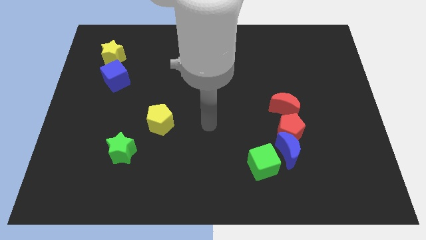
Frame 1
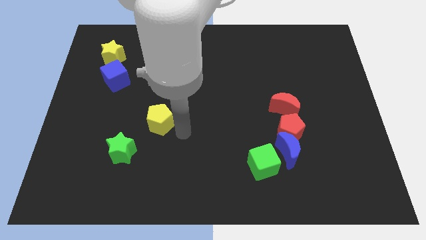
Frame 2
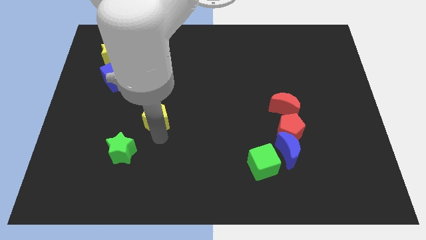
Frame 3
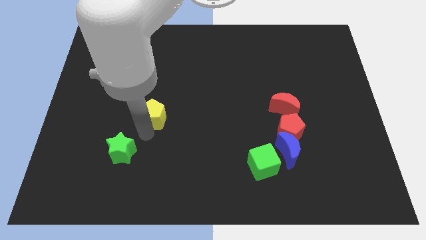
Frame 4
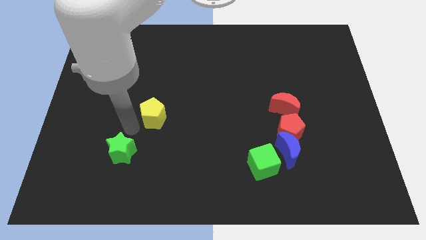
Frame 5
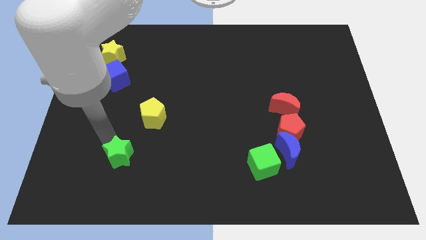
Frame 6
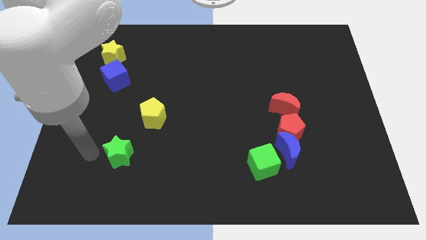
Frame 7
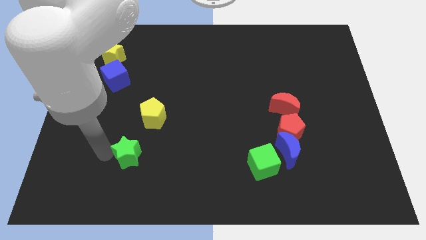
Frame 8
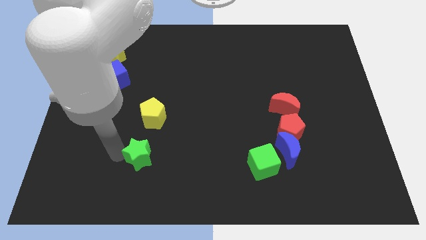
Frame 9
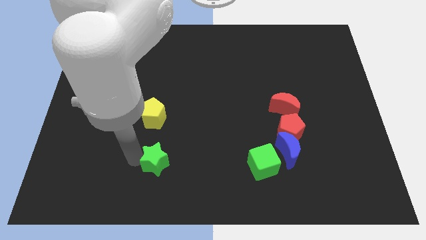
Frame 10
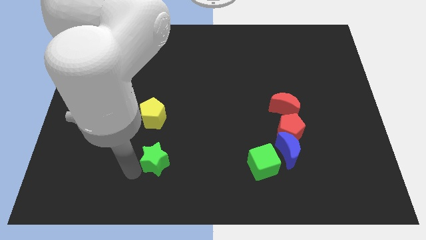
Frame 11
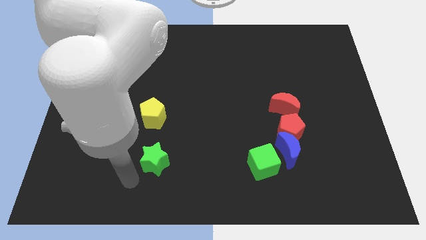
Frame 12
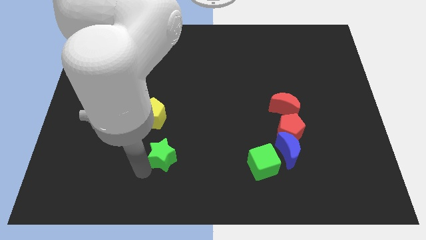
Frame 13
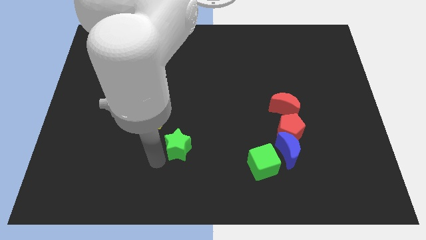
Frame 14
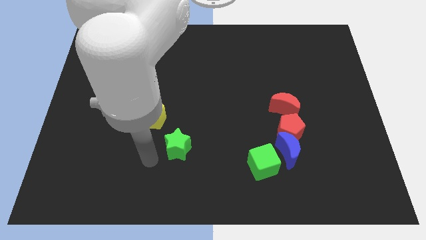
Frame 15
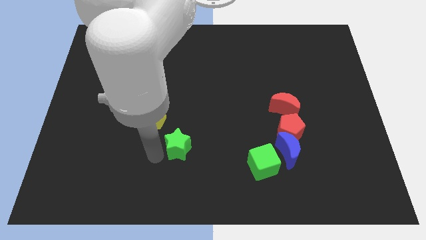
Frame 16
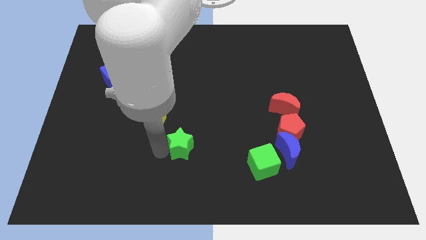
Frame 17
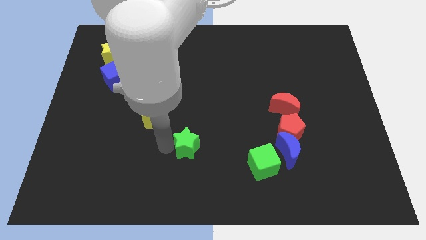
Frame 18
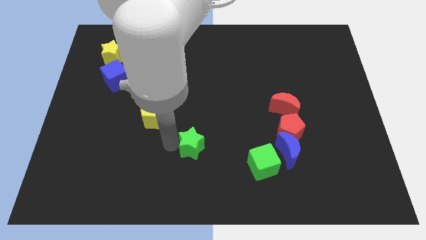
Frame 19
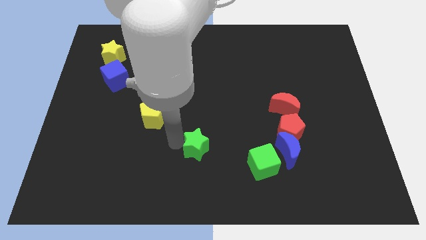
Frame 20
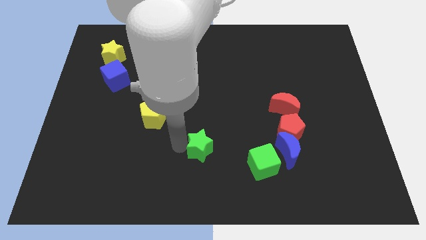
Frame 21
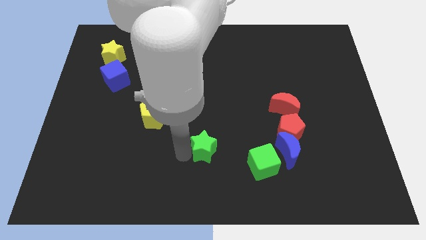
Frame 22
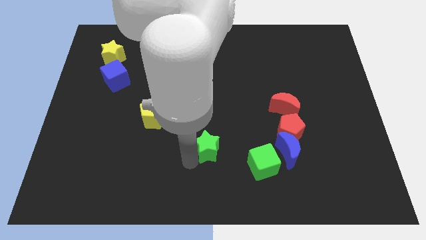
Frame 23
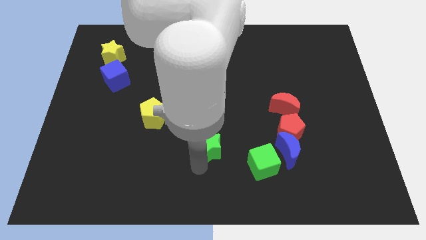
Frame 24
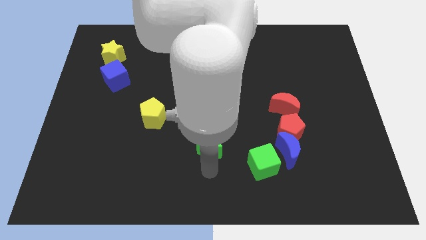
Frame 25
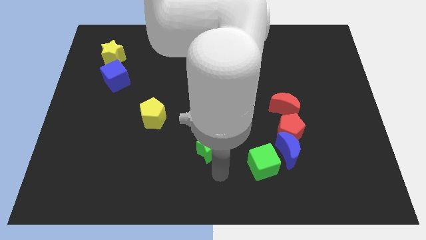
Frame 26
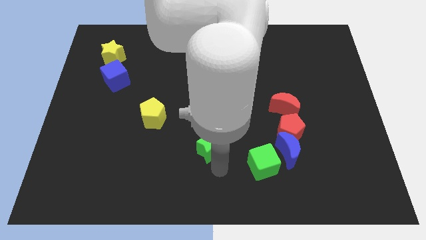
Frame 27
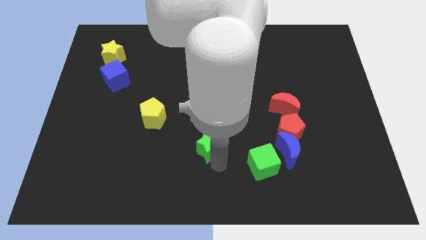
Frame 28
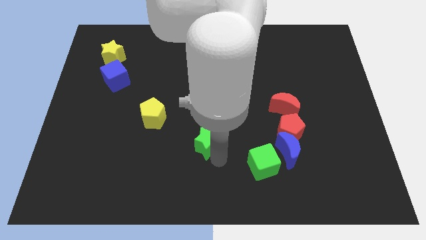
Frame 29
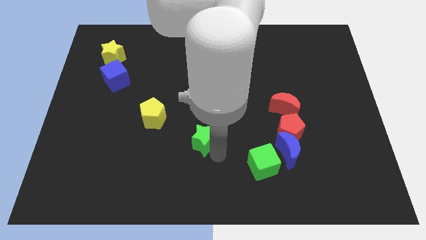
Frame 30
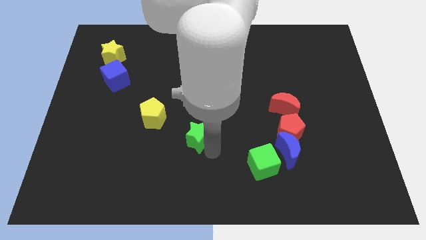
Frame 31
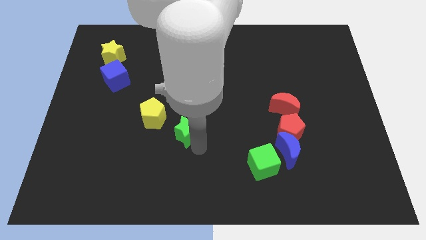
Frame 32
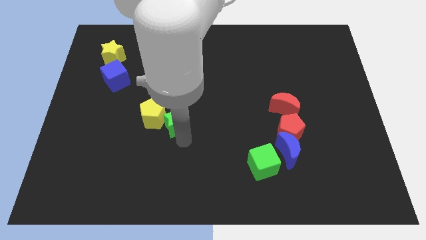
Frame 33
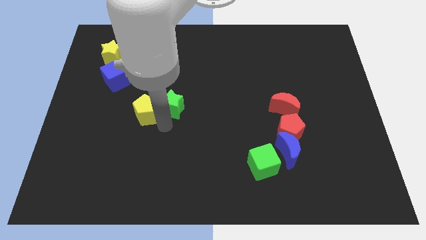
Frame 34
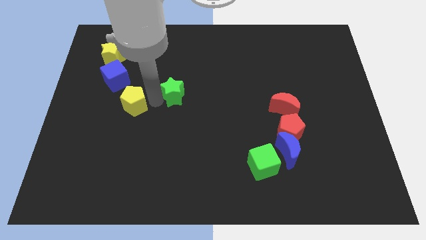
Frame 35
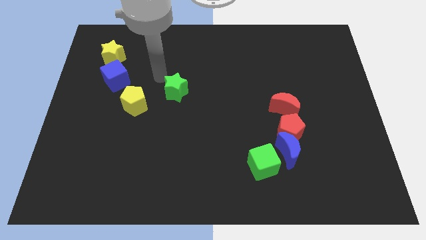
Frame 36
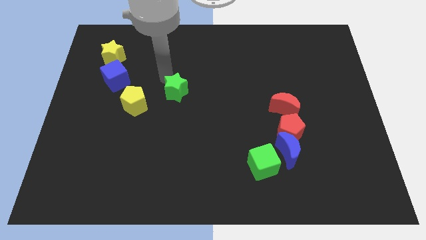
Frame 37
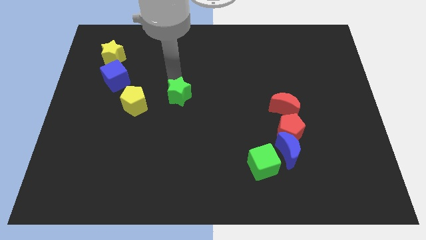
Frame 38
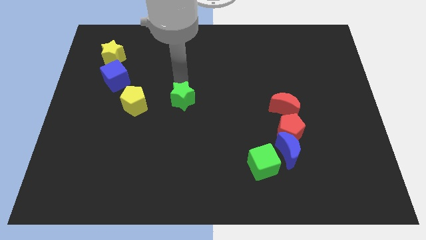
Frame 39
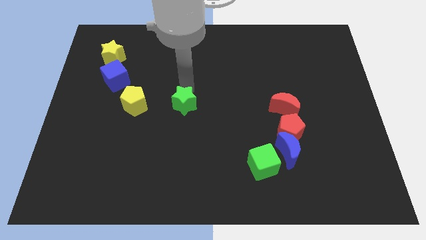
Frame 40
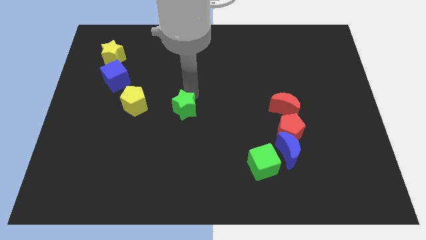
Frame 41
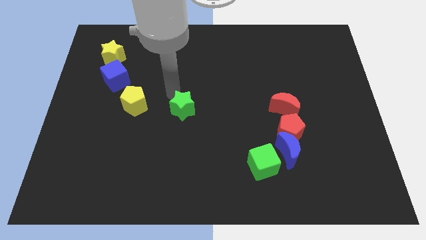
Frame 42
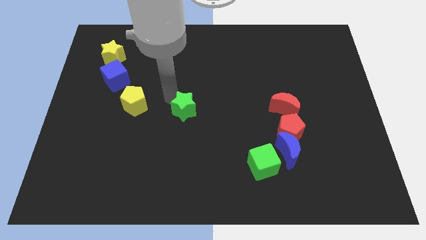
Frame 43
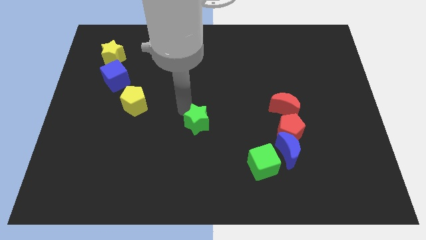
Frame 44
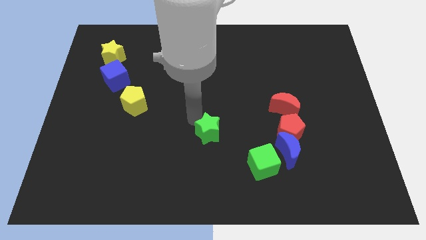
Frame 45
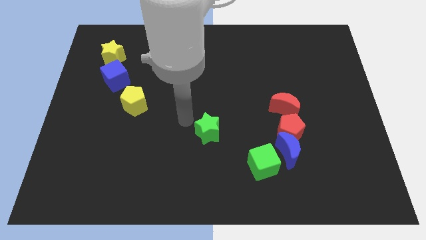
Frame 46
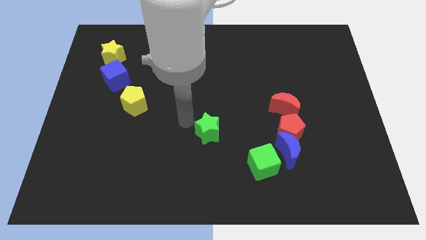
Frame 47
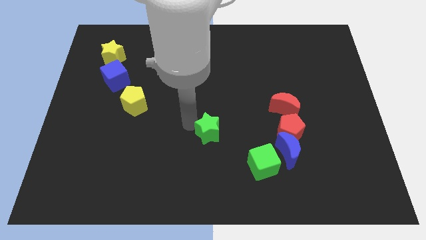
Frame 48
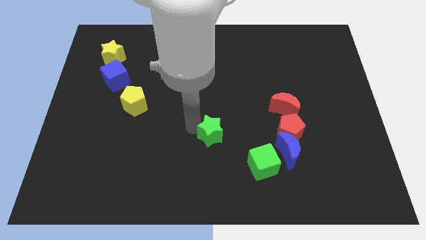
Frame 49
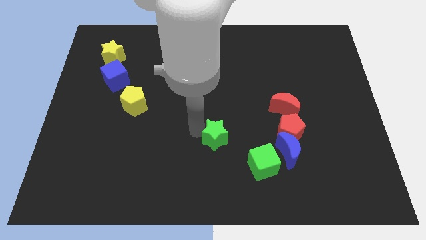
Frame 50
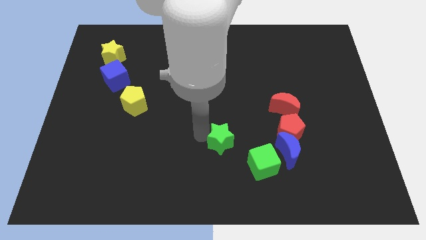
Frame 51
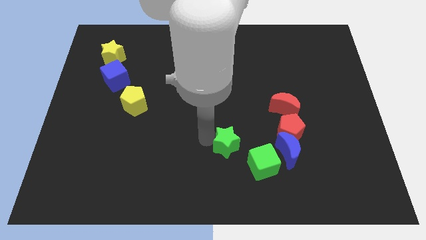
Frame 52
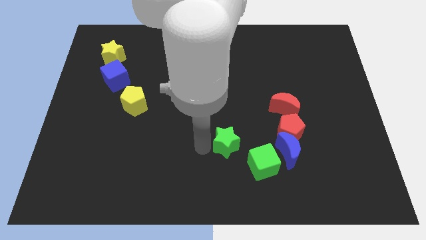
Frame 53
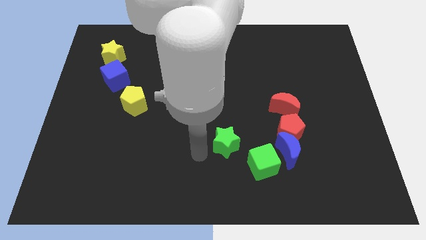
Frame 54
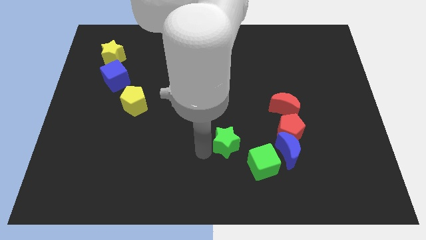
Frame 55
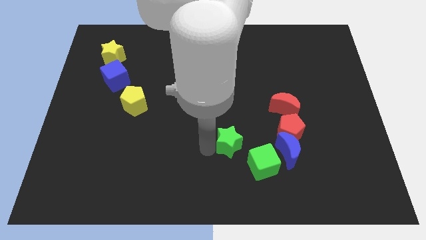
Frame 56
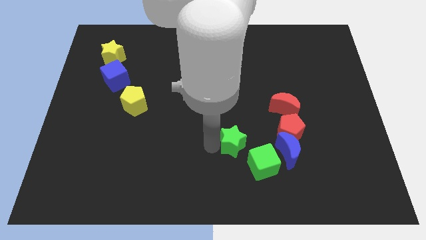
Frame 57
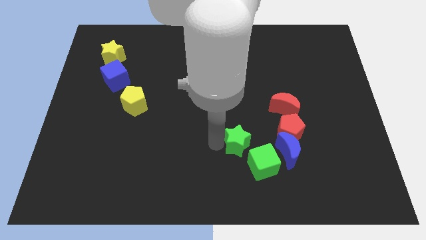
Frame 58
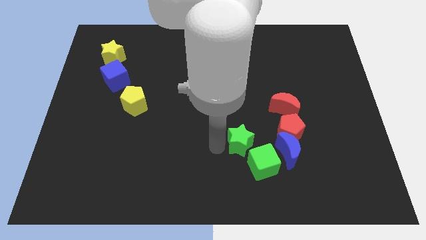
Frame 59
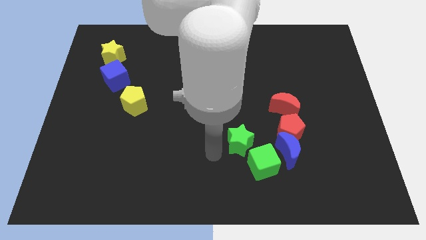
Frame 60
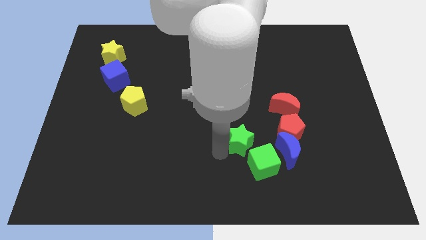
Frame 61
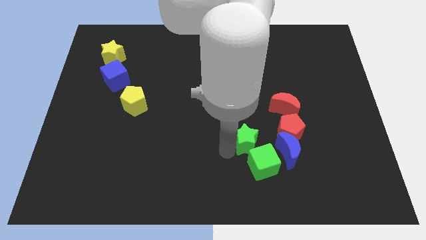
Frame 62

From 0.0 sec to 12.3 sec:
move the green star diagonally up and to the left of the blue moon

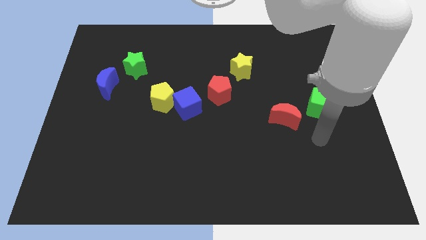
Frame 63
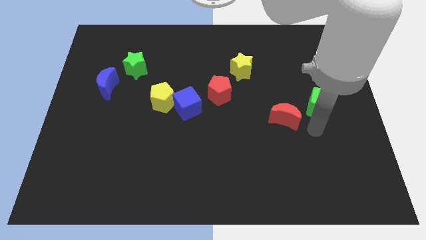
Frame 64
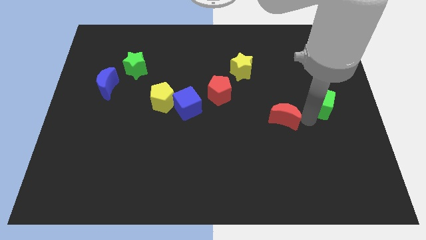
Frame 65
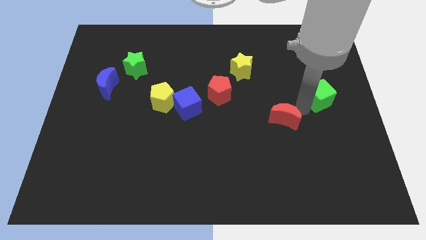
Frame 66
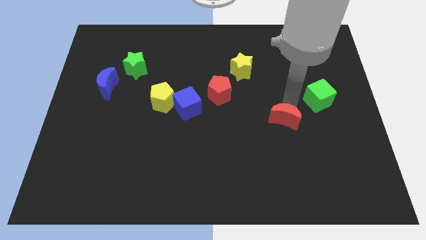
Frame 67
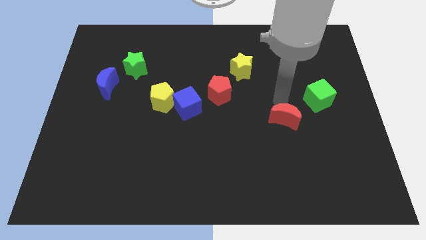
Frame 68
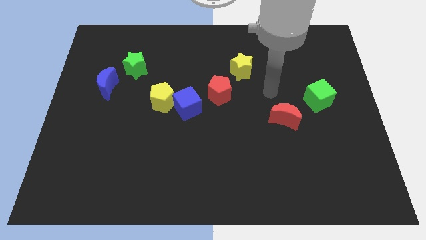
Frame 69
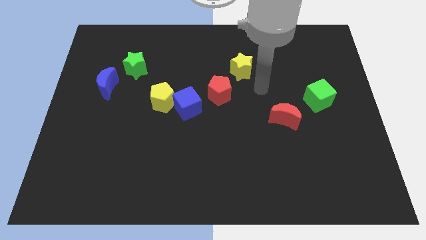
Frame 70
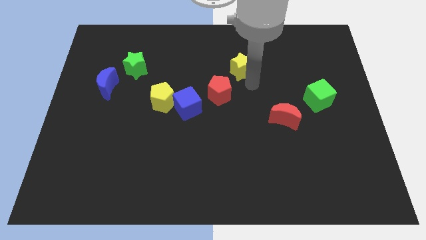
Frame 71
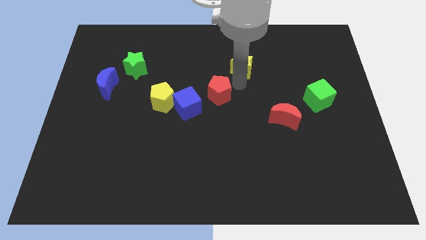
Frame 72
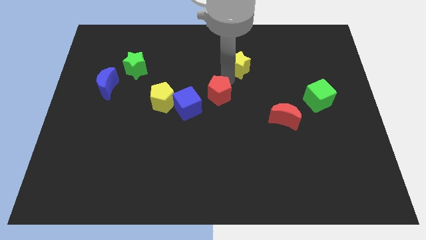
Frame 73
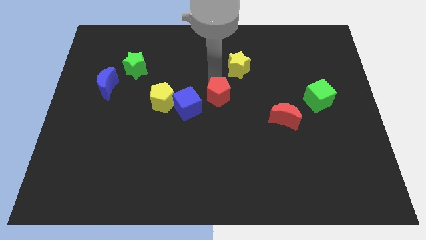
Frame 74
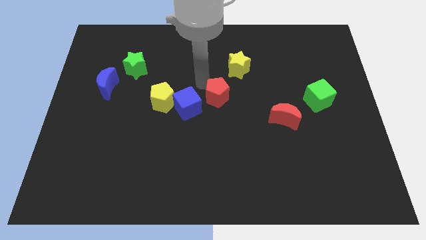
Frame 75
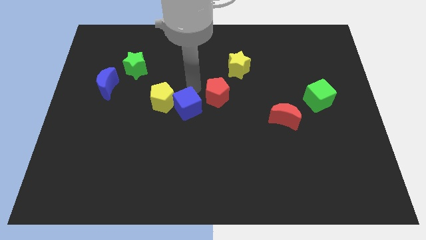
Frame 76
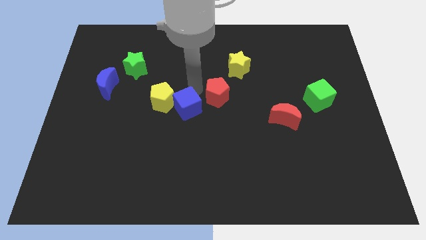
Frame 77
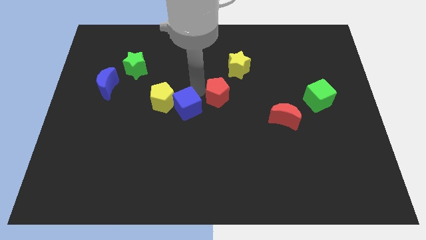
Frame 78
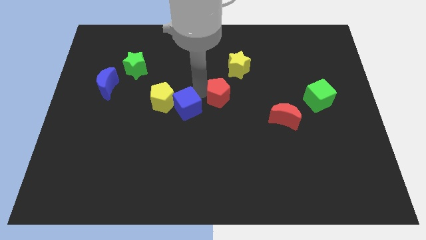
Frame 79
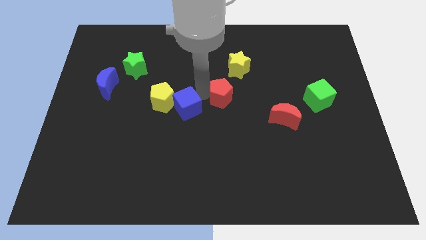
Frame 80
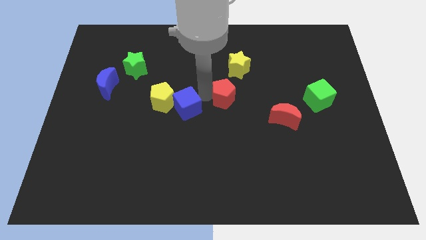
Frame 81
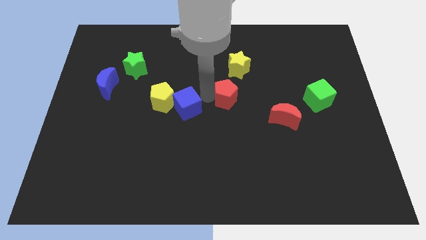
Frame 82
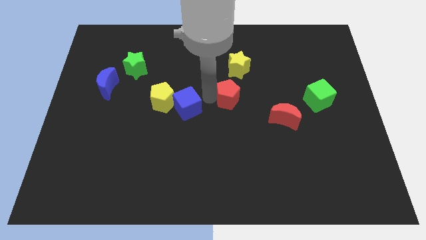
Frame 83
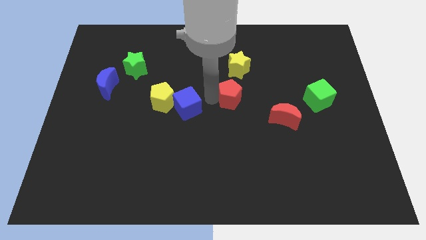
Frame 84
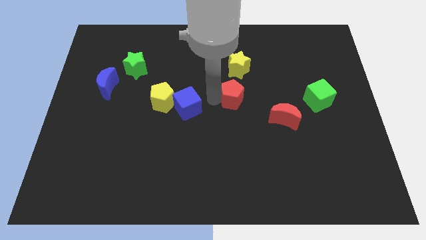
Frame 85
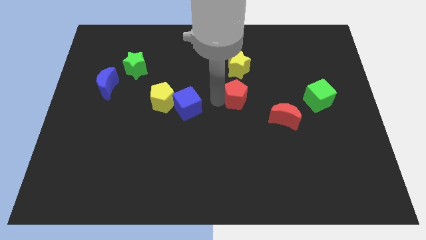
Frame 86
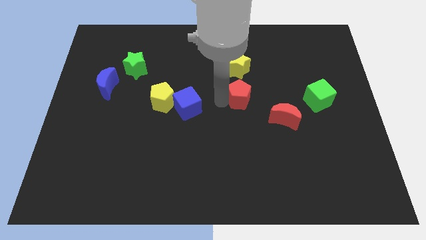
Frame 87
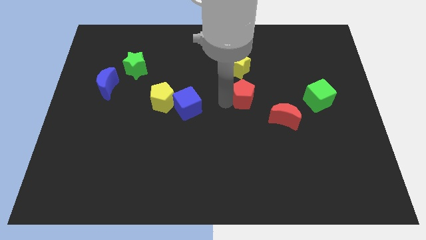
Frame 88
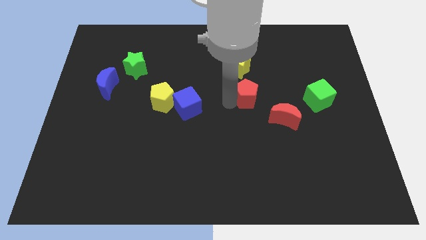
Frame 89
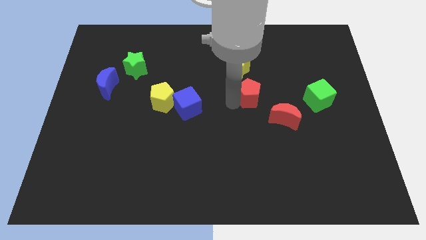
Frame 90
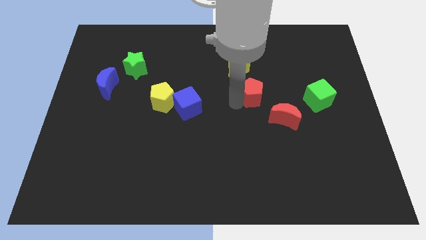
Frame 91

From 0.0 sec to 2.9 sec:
put the red pentagon to the left side of the green cube
